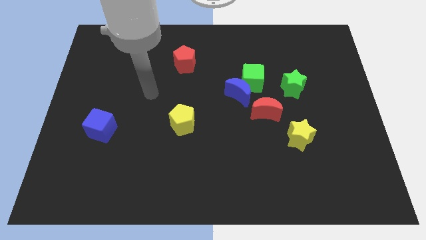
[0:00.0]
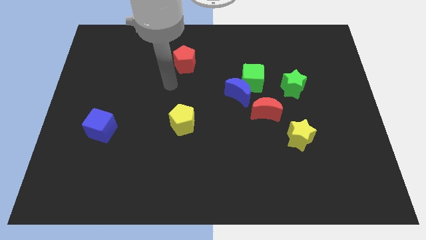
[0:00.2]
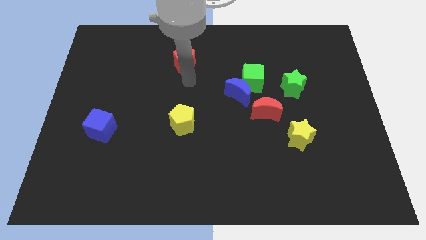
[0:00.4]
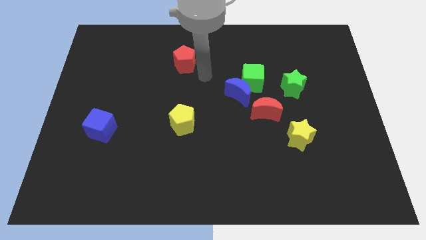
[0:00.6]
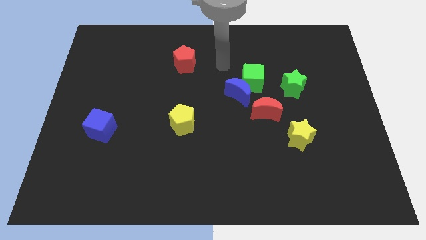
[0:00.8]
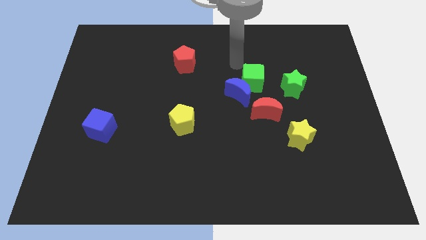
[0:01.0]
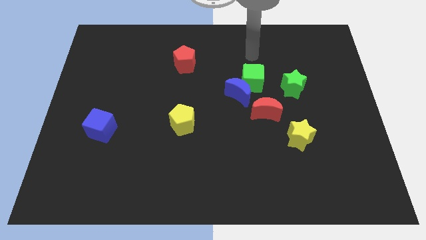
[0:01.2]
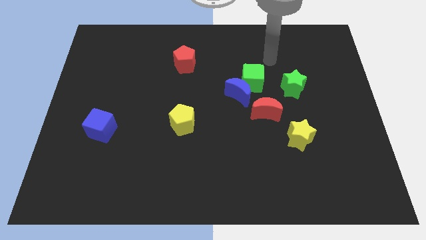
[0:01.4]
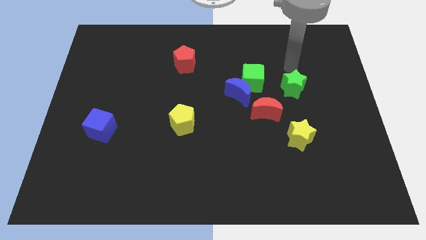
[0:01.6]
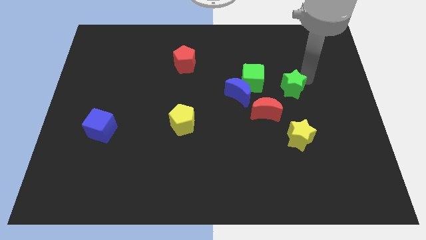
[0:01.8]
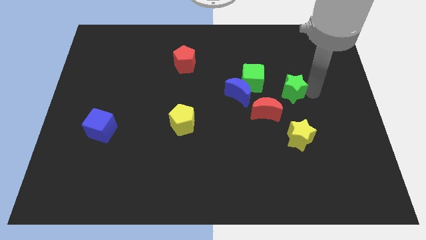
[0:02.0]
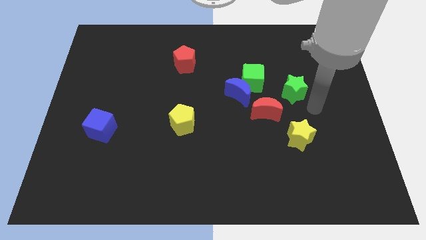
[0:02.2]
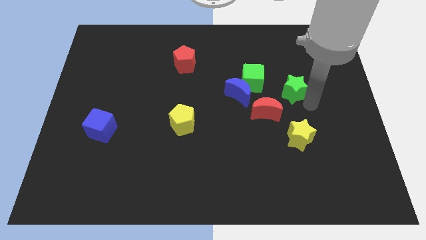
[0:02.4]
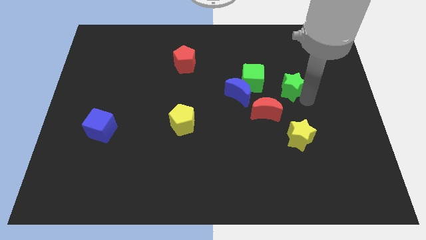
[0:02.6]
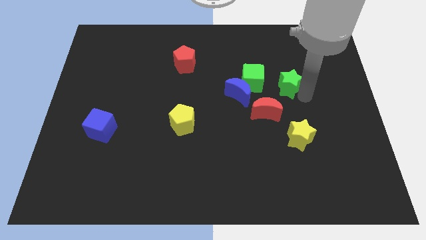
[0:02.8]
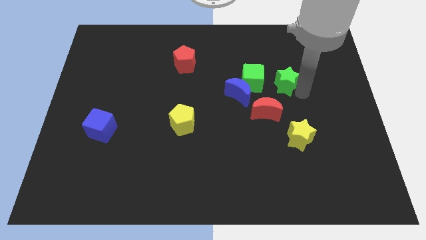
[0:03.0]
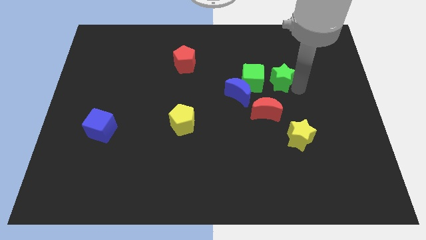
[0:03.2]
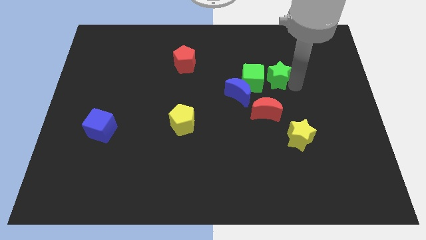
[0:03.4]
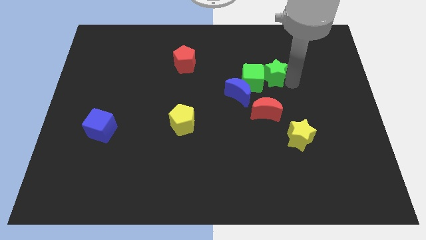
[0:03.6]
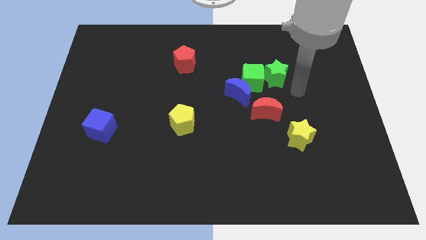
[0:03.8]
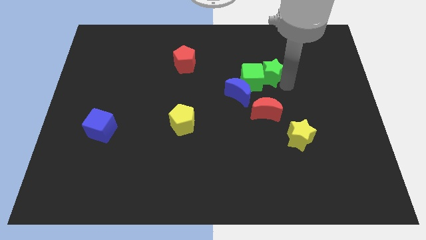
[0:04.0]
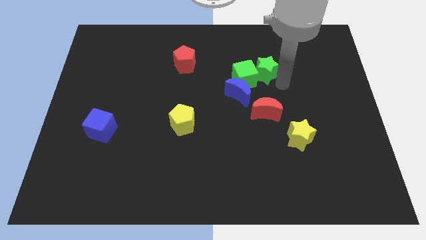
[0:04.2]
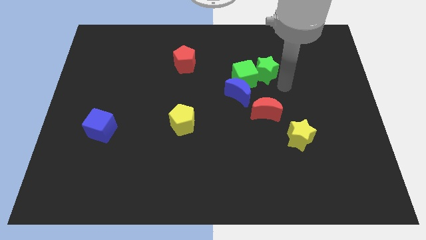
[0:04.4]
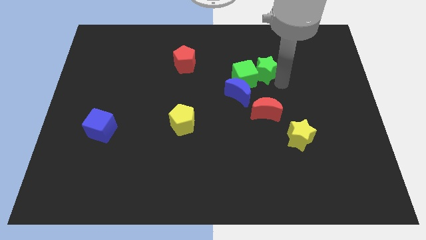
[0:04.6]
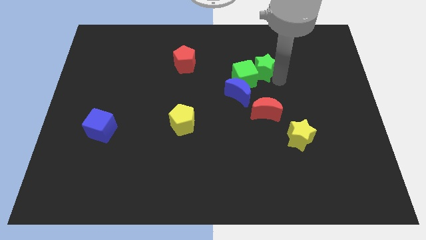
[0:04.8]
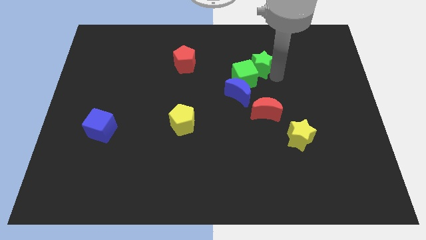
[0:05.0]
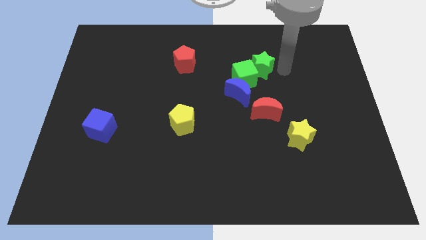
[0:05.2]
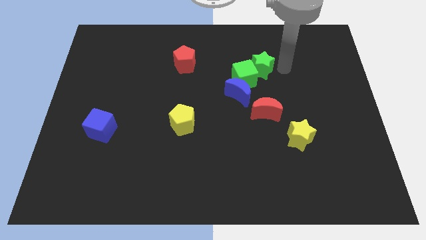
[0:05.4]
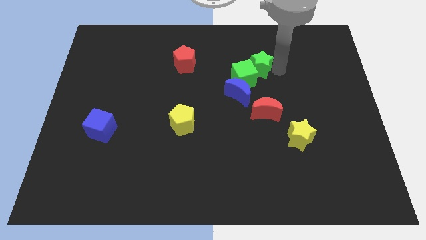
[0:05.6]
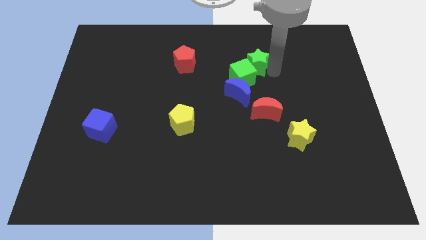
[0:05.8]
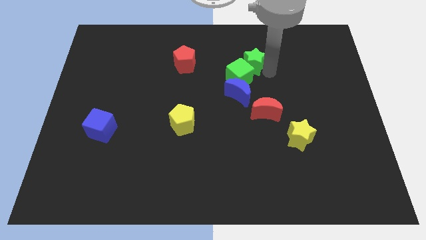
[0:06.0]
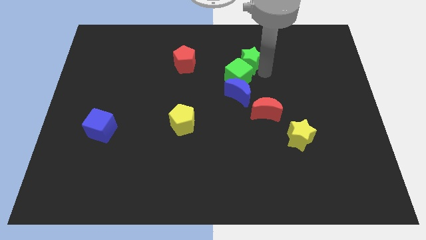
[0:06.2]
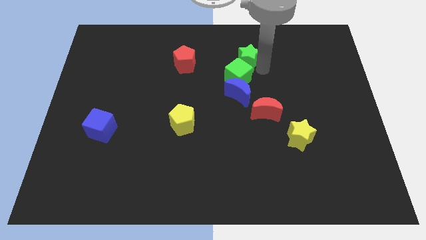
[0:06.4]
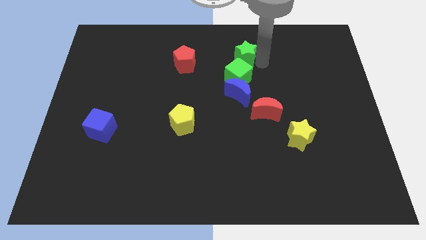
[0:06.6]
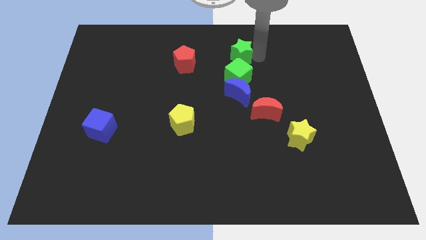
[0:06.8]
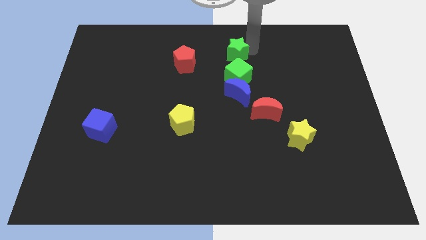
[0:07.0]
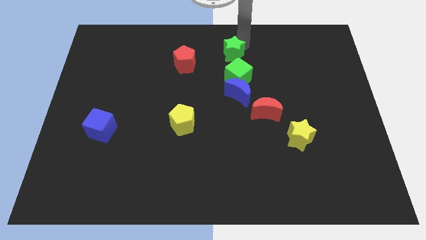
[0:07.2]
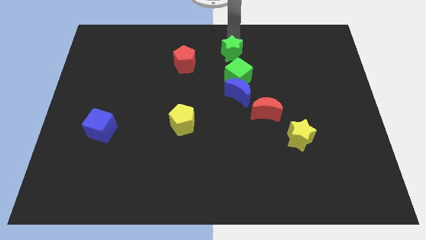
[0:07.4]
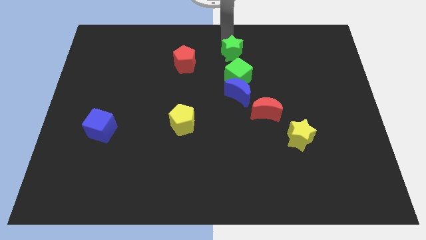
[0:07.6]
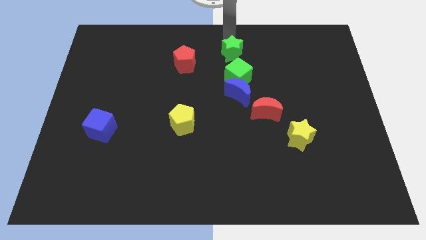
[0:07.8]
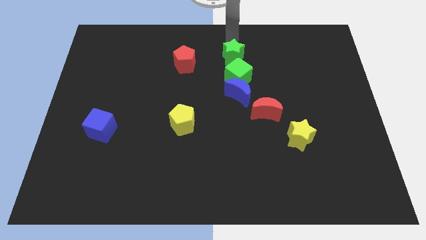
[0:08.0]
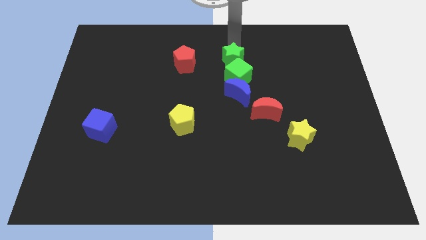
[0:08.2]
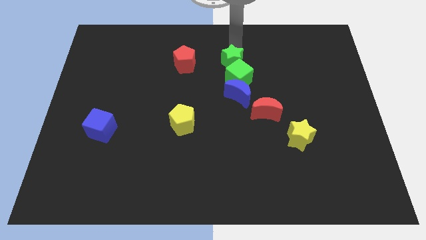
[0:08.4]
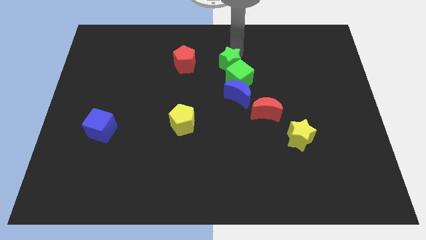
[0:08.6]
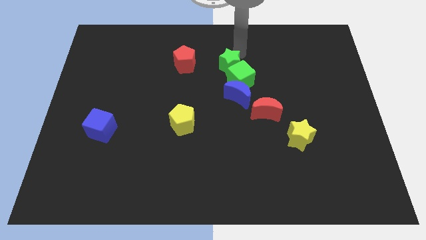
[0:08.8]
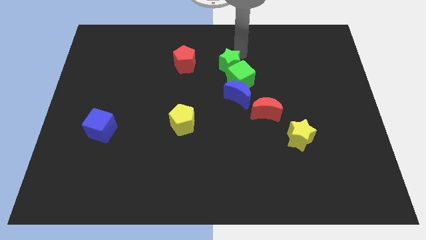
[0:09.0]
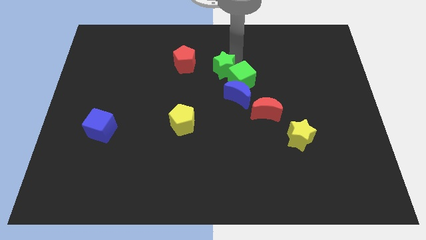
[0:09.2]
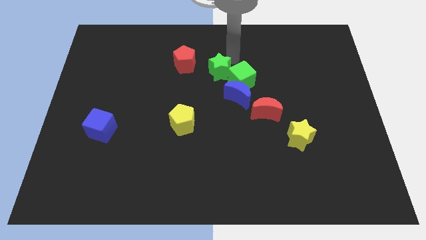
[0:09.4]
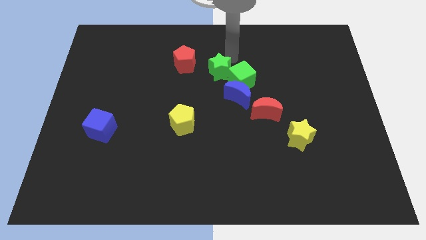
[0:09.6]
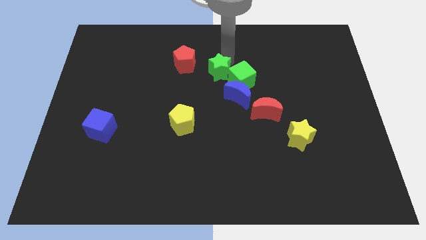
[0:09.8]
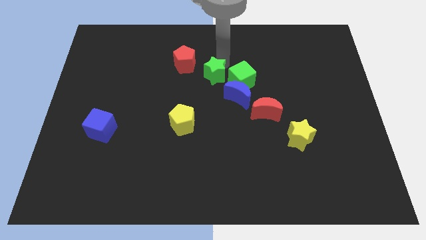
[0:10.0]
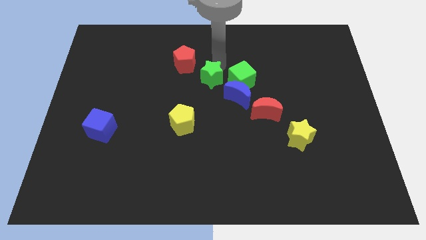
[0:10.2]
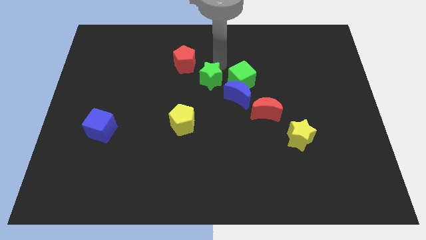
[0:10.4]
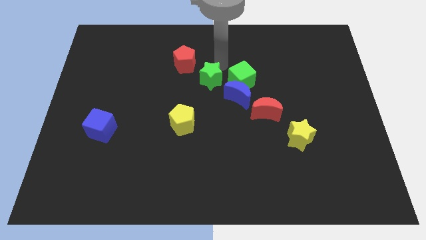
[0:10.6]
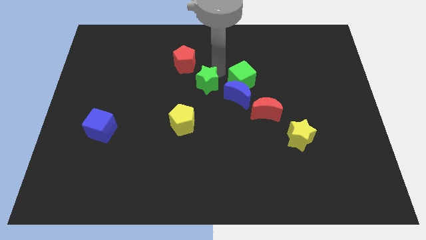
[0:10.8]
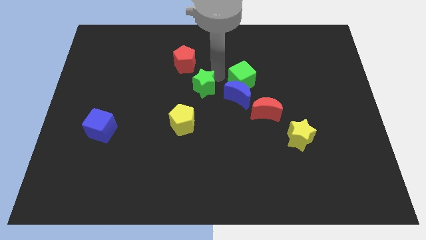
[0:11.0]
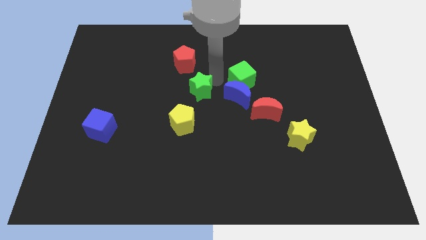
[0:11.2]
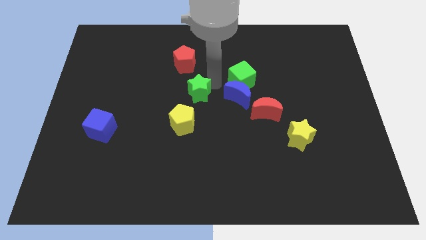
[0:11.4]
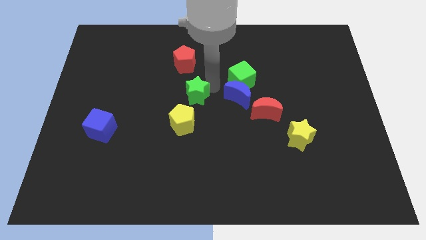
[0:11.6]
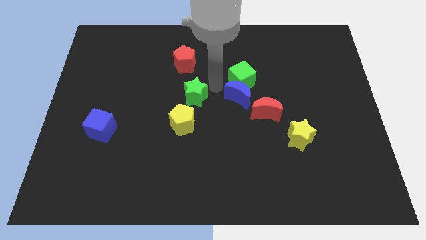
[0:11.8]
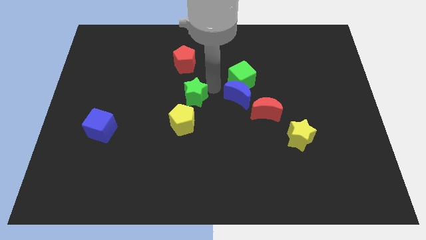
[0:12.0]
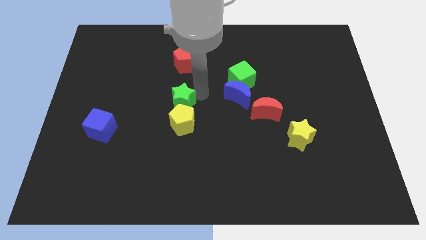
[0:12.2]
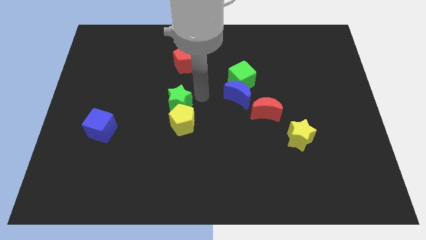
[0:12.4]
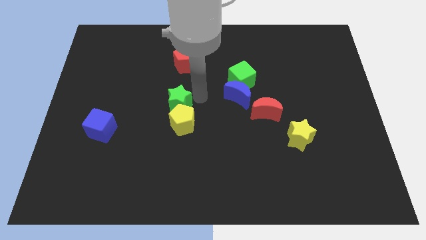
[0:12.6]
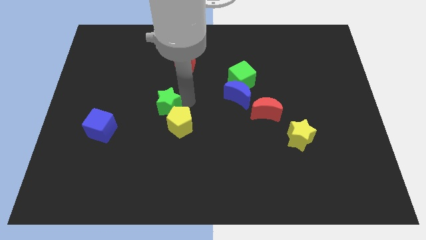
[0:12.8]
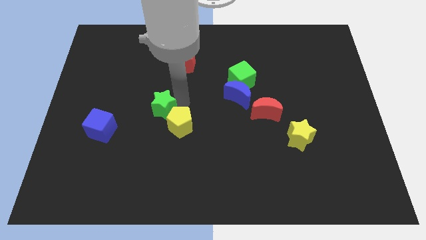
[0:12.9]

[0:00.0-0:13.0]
push the green star to the left side of the yellow pentagon

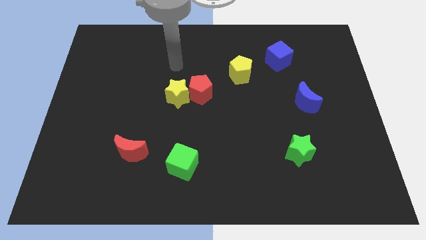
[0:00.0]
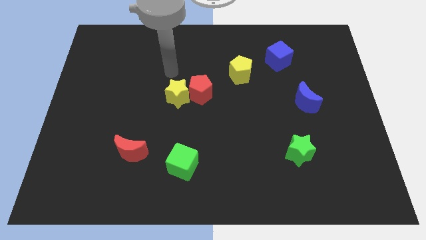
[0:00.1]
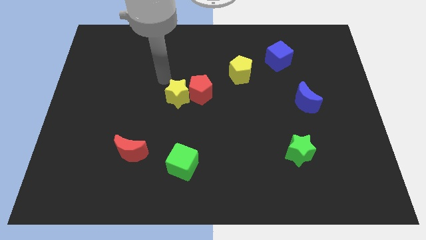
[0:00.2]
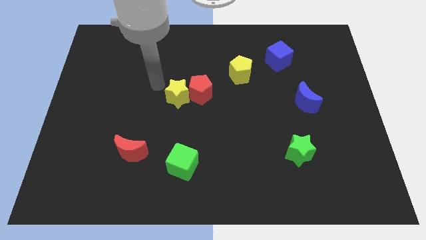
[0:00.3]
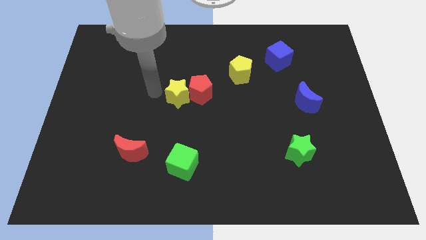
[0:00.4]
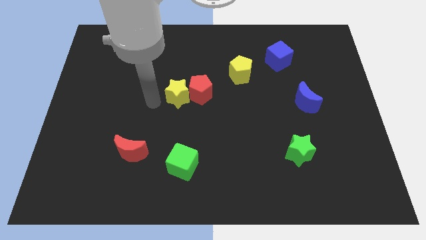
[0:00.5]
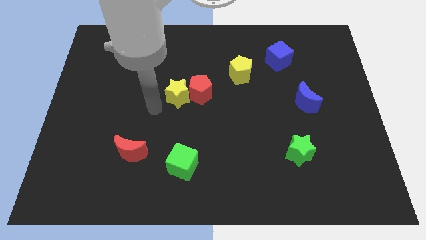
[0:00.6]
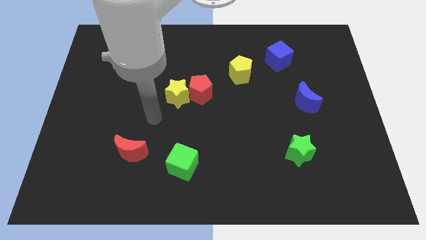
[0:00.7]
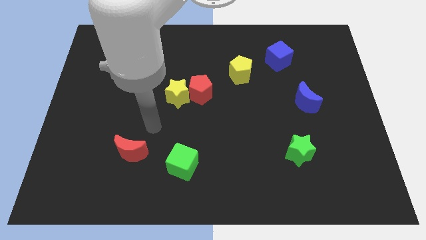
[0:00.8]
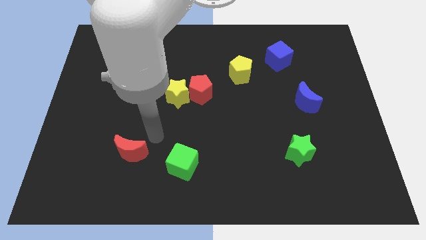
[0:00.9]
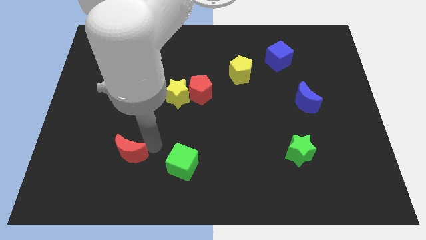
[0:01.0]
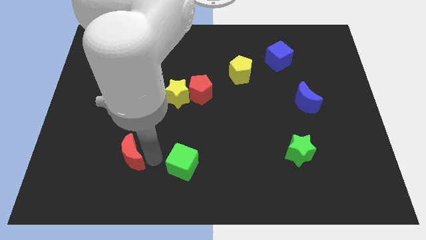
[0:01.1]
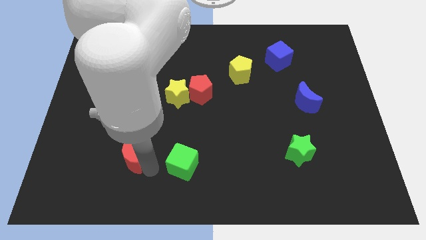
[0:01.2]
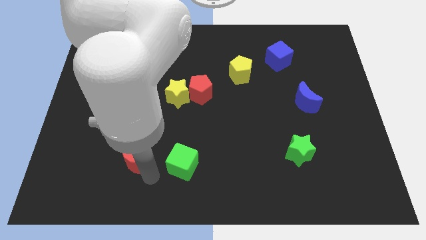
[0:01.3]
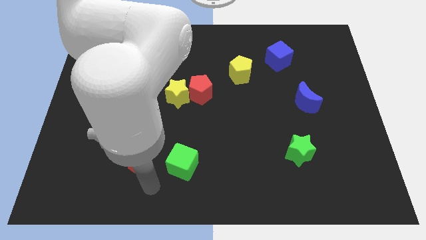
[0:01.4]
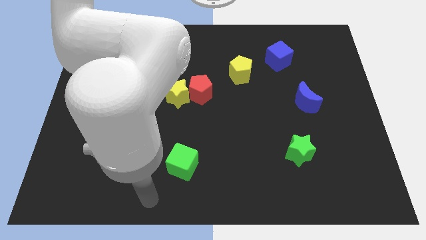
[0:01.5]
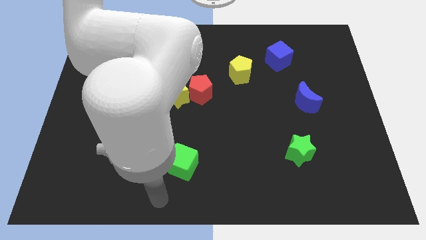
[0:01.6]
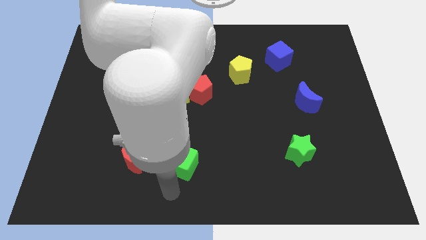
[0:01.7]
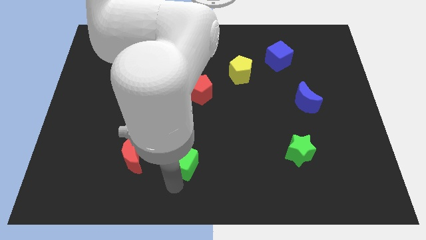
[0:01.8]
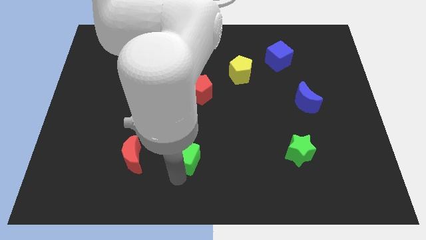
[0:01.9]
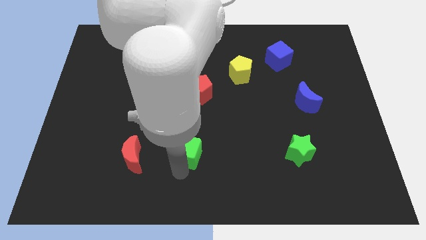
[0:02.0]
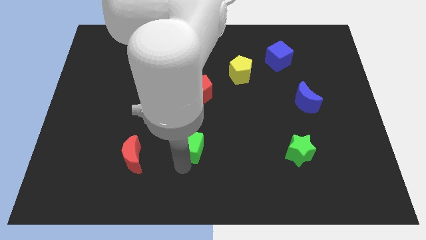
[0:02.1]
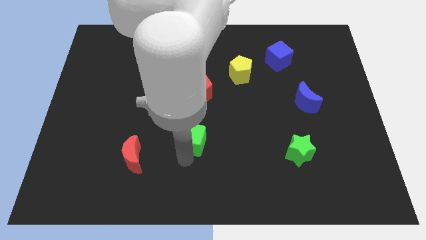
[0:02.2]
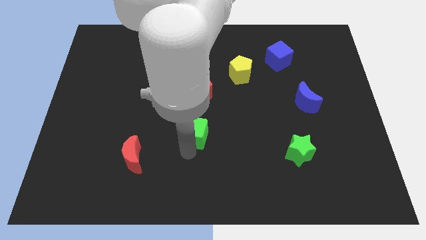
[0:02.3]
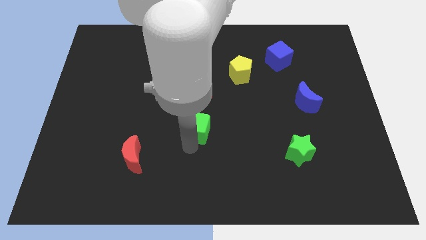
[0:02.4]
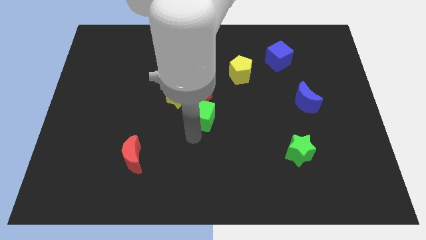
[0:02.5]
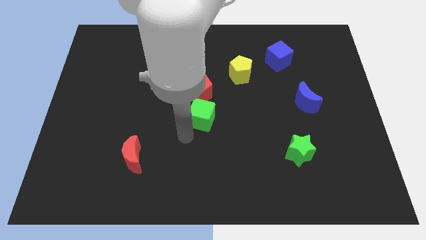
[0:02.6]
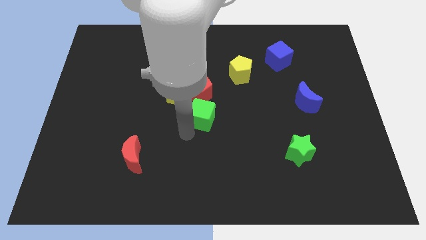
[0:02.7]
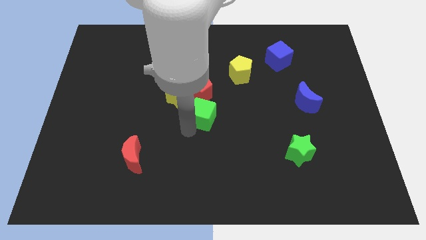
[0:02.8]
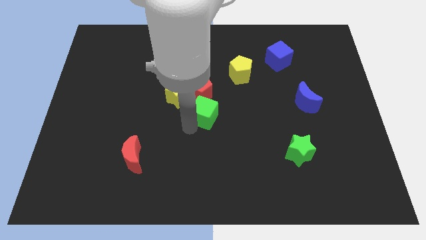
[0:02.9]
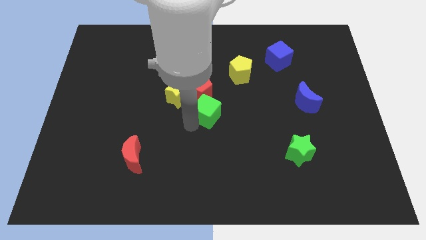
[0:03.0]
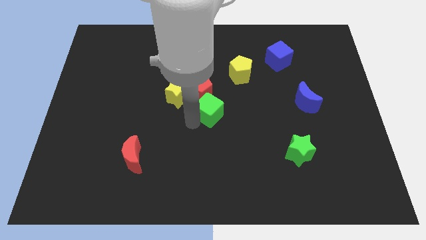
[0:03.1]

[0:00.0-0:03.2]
put the green cube to the right of the yellow star
